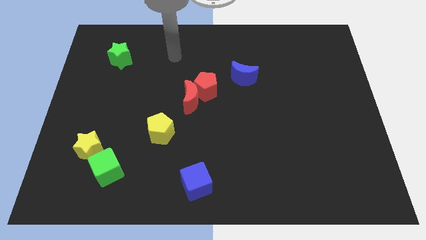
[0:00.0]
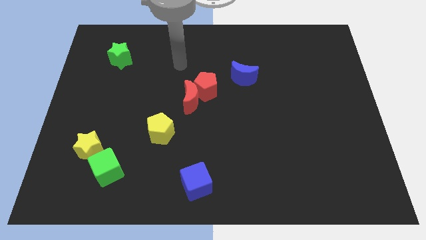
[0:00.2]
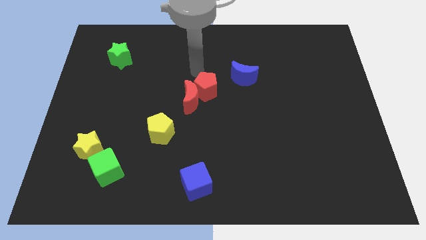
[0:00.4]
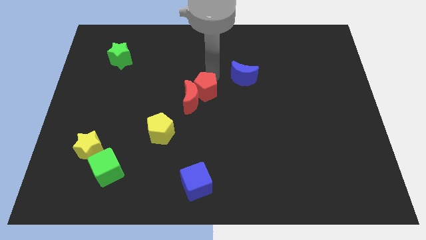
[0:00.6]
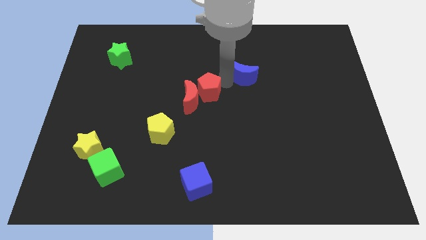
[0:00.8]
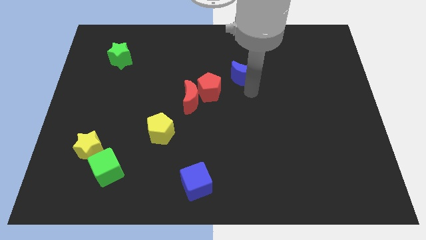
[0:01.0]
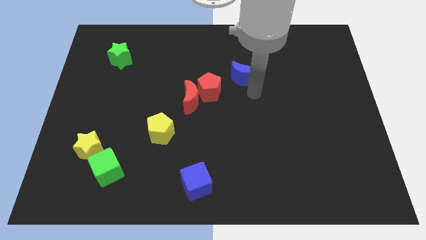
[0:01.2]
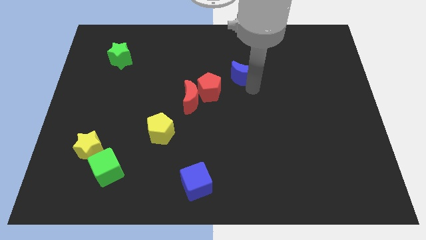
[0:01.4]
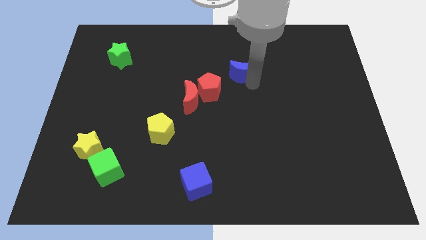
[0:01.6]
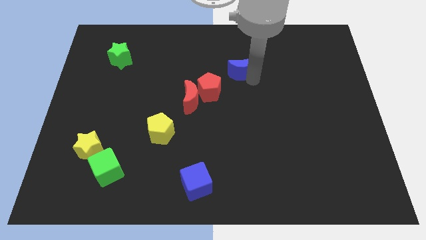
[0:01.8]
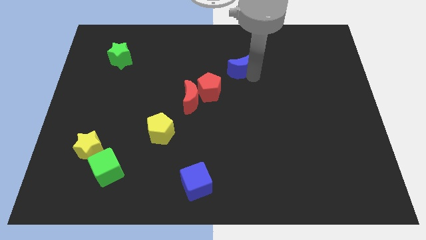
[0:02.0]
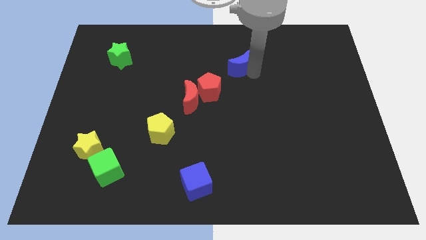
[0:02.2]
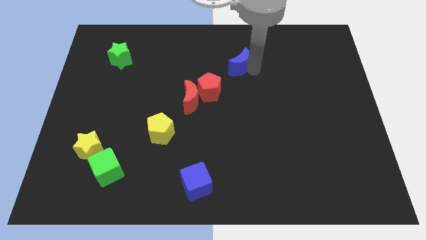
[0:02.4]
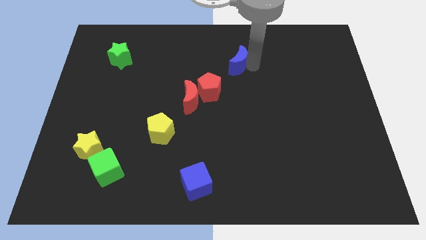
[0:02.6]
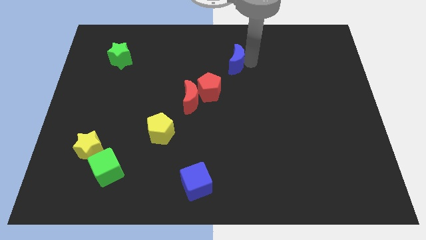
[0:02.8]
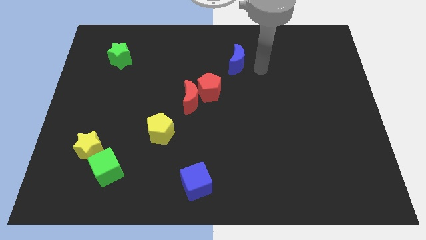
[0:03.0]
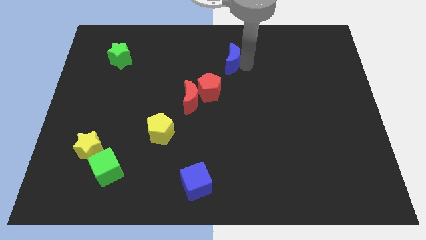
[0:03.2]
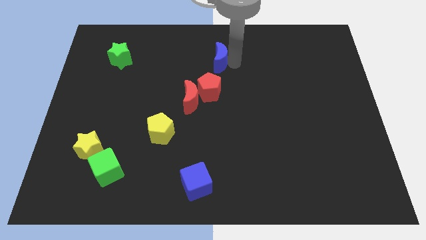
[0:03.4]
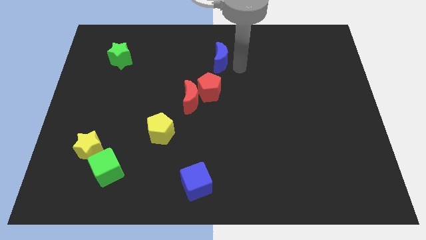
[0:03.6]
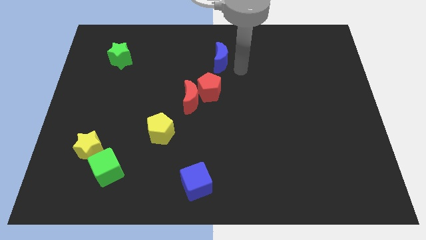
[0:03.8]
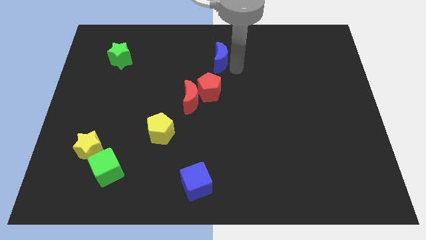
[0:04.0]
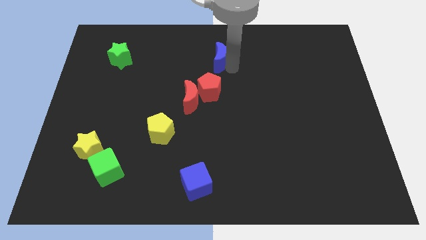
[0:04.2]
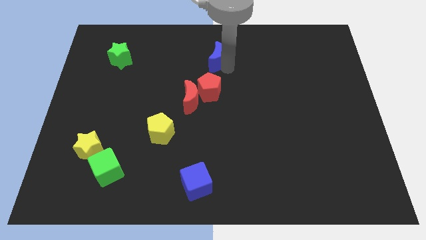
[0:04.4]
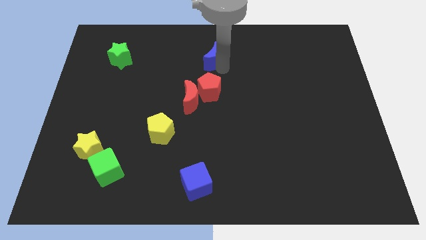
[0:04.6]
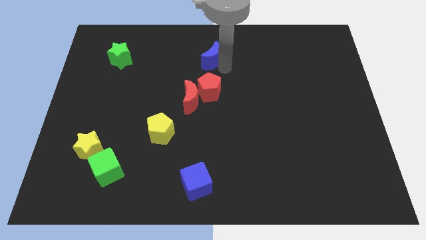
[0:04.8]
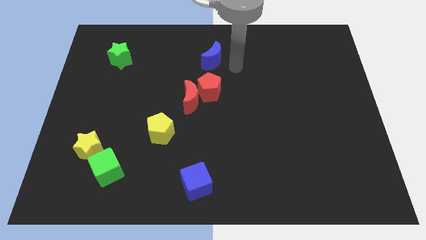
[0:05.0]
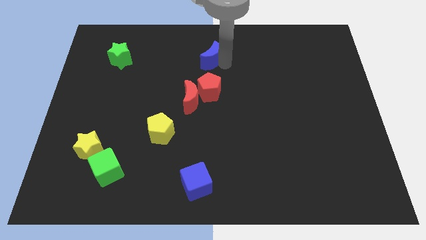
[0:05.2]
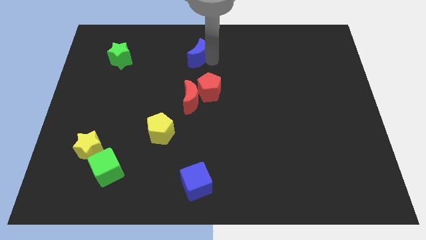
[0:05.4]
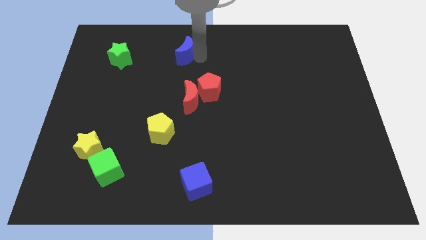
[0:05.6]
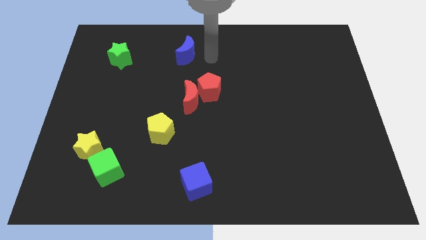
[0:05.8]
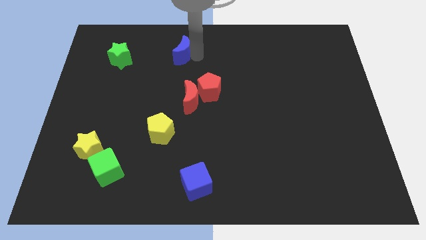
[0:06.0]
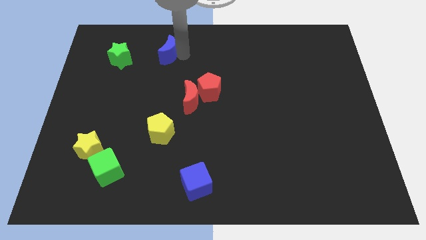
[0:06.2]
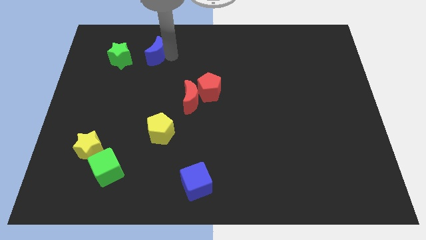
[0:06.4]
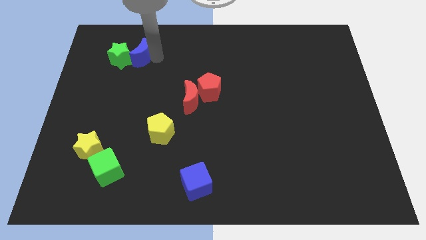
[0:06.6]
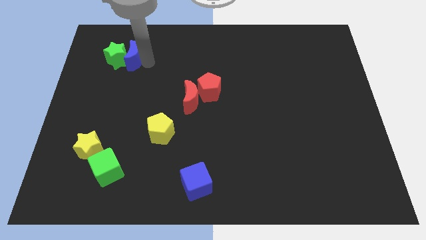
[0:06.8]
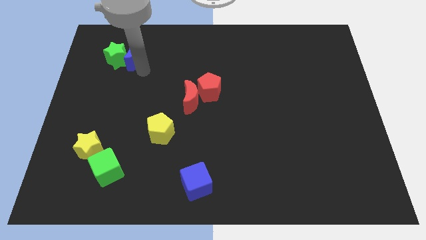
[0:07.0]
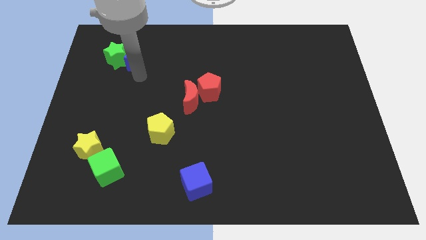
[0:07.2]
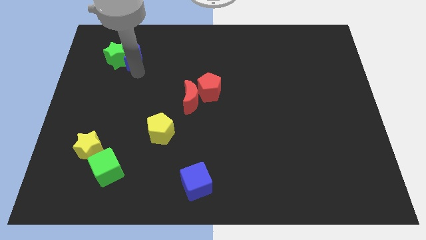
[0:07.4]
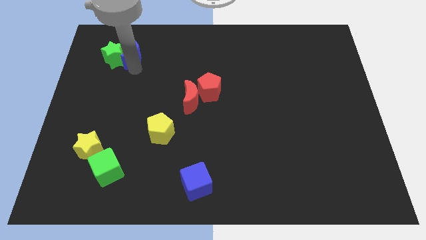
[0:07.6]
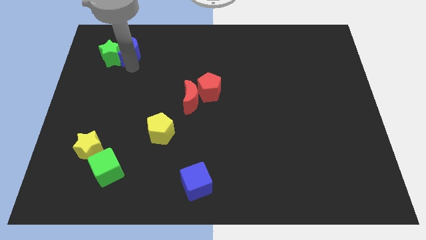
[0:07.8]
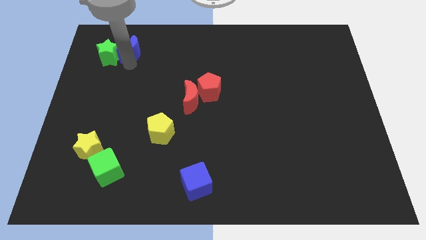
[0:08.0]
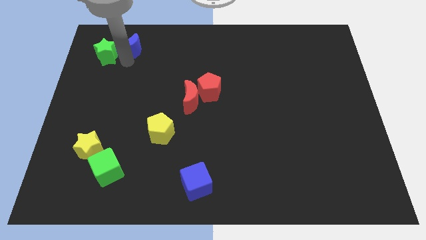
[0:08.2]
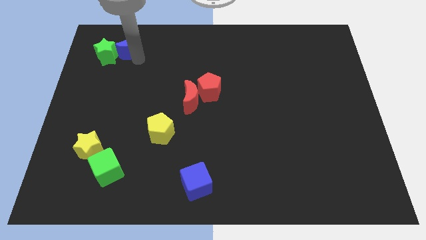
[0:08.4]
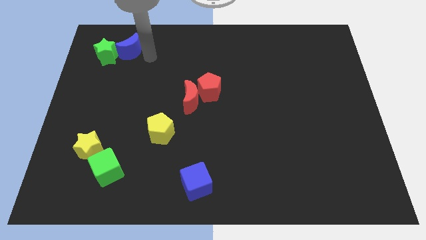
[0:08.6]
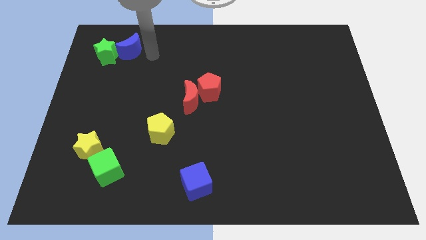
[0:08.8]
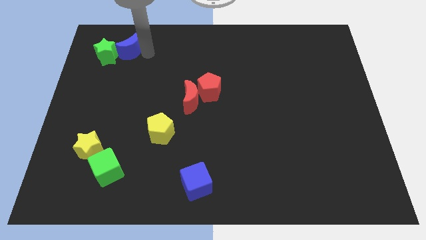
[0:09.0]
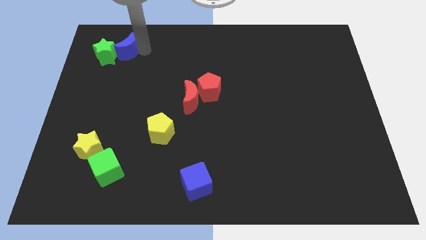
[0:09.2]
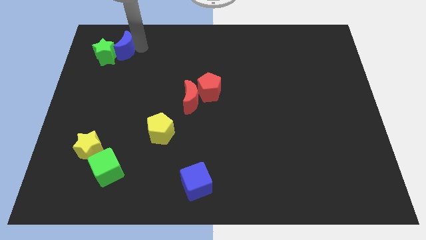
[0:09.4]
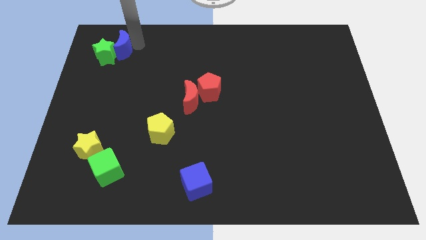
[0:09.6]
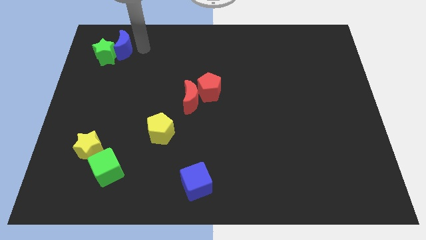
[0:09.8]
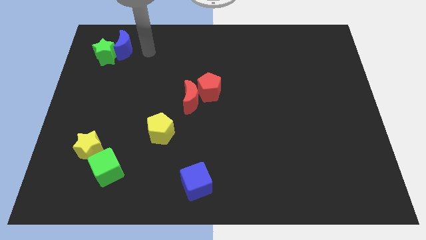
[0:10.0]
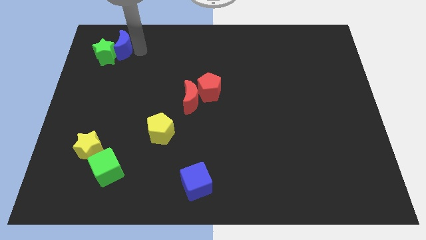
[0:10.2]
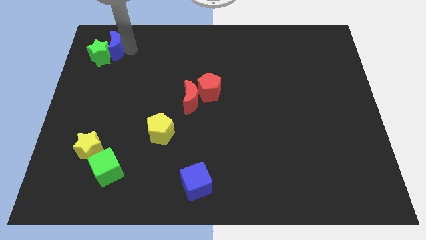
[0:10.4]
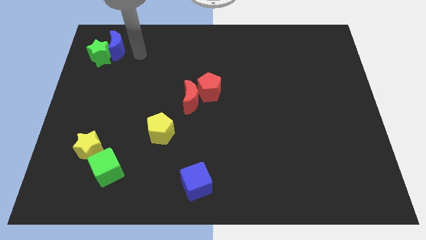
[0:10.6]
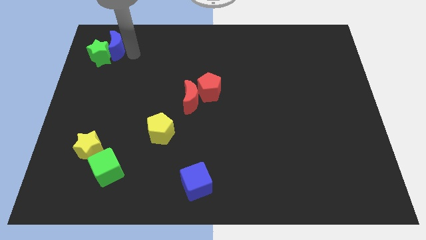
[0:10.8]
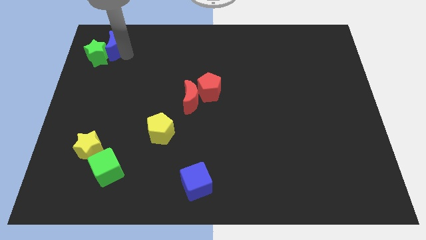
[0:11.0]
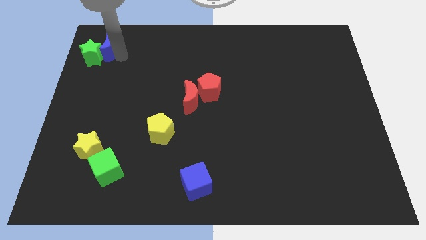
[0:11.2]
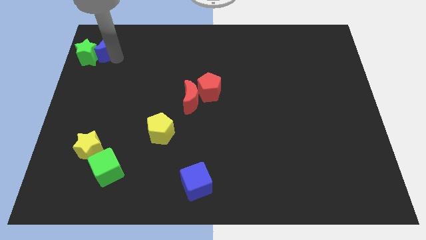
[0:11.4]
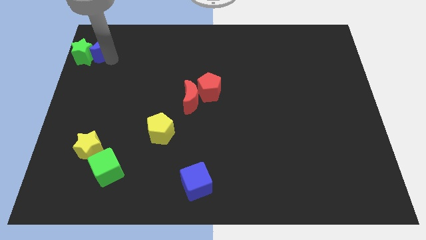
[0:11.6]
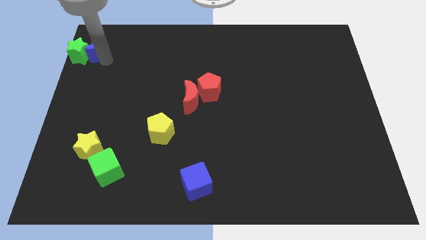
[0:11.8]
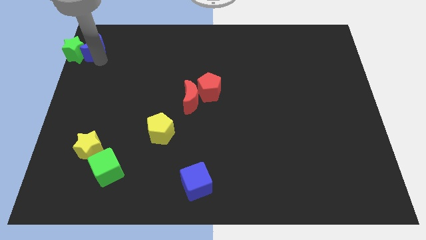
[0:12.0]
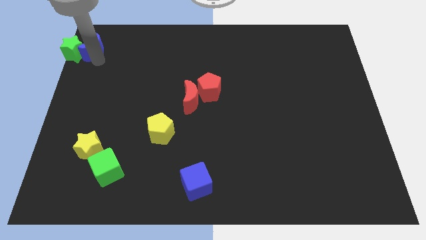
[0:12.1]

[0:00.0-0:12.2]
push the blue moon to the top left of the board

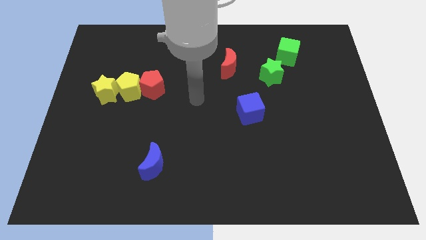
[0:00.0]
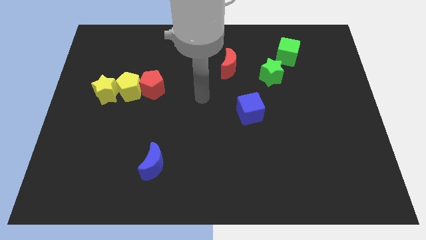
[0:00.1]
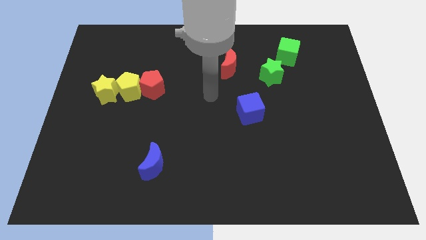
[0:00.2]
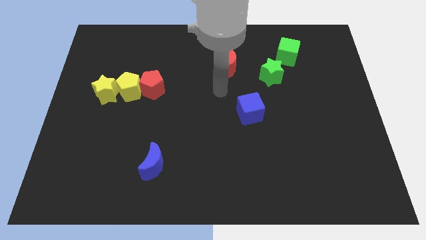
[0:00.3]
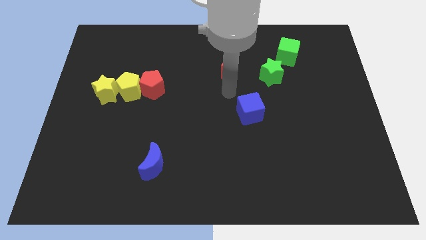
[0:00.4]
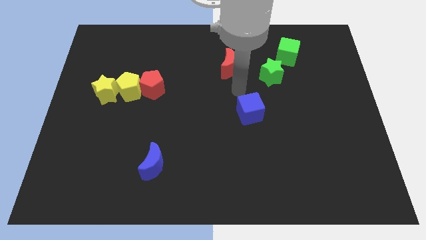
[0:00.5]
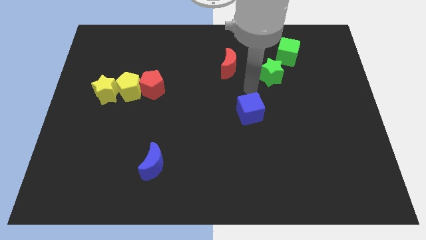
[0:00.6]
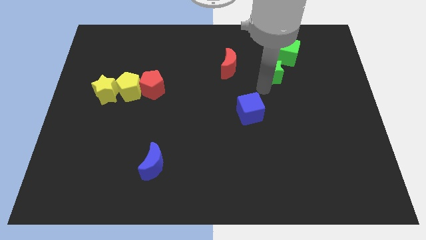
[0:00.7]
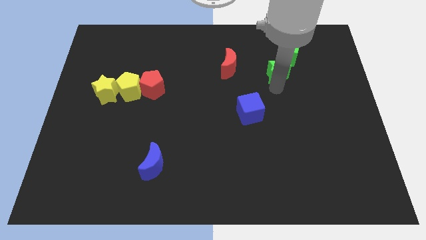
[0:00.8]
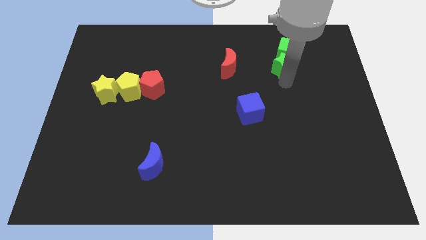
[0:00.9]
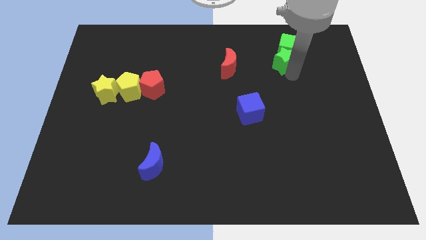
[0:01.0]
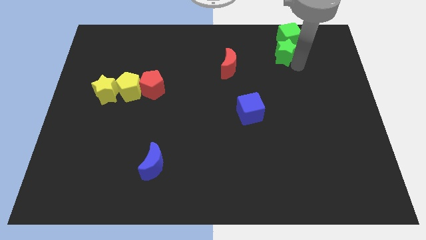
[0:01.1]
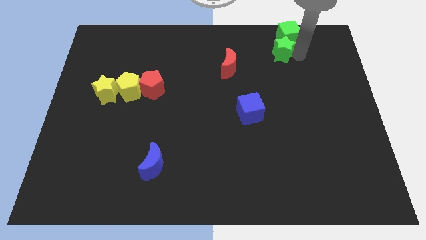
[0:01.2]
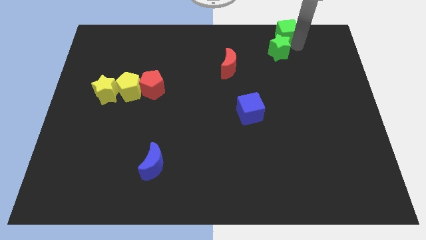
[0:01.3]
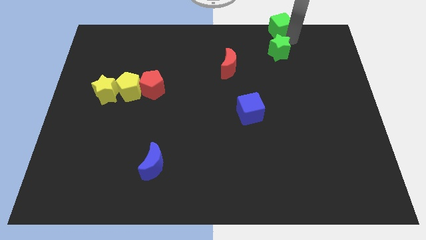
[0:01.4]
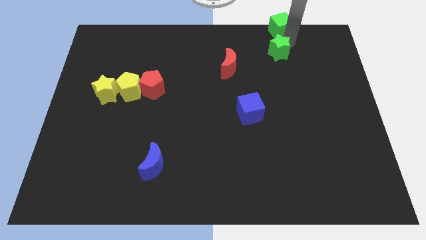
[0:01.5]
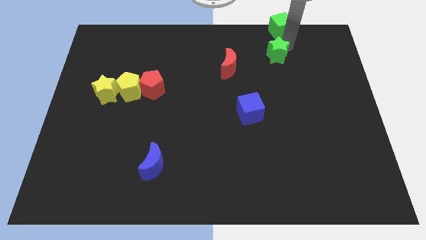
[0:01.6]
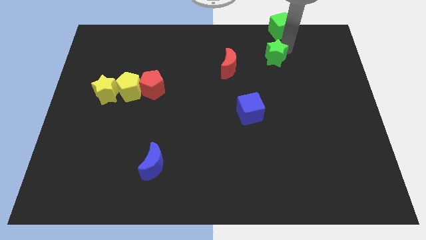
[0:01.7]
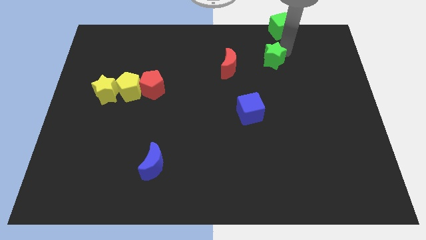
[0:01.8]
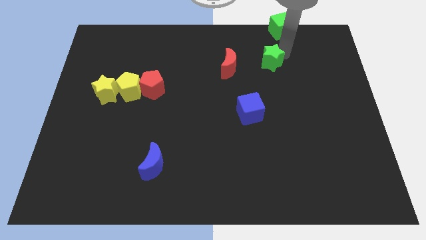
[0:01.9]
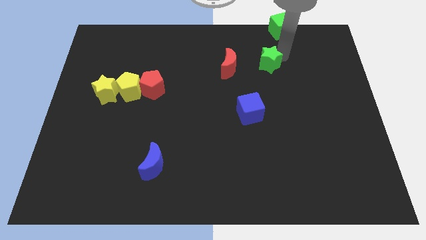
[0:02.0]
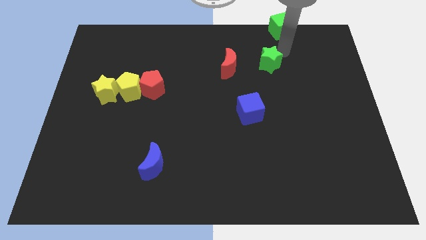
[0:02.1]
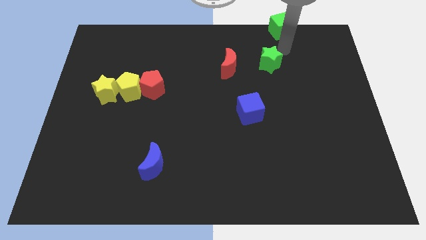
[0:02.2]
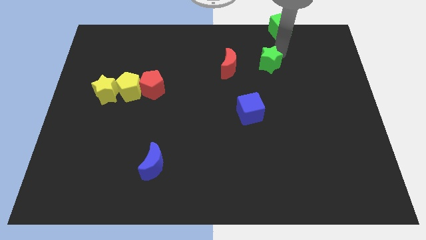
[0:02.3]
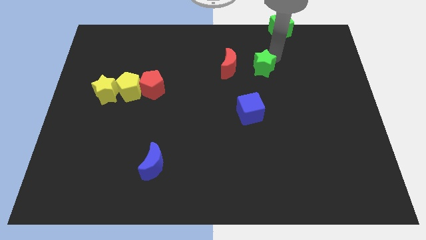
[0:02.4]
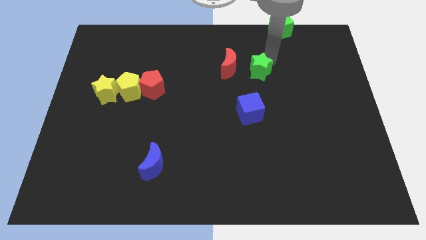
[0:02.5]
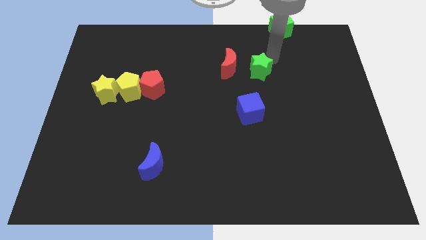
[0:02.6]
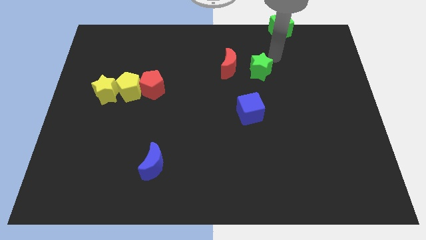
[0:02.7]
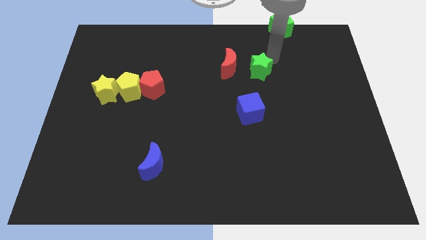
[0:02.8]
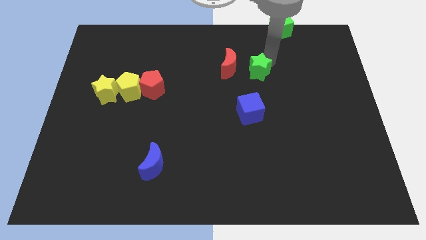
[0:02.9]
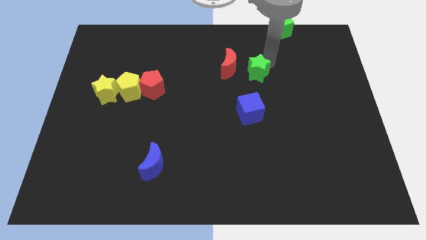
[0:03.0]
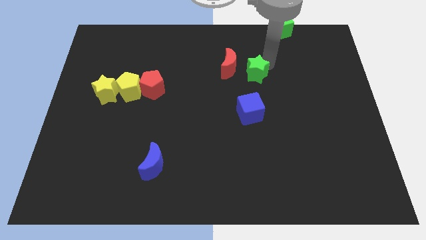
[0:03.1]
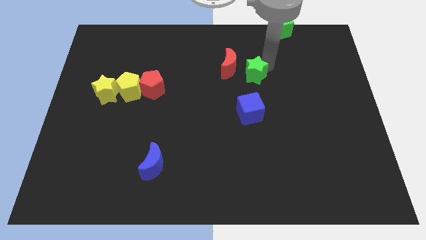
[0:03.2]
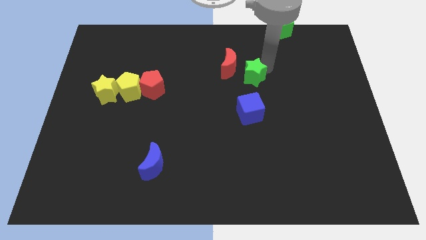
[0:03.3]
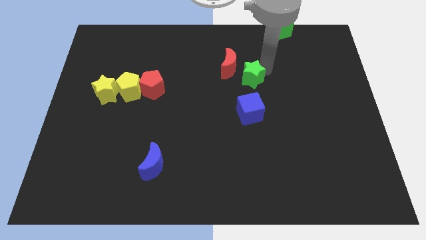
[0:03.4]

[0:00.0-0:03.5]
put the green star to the center of the board
